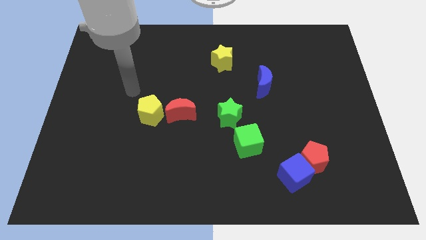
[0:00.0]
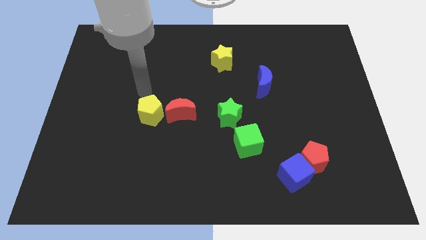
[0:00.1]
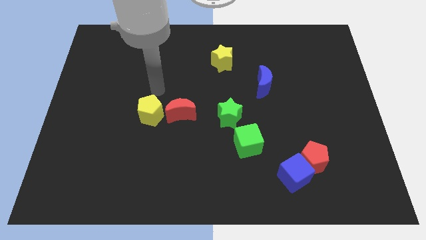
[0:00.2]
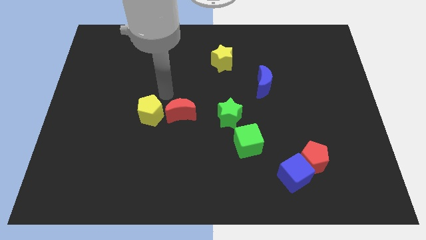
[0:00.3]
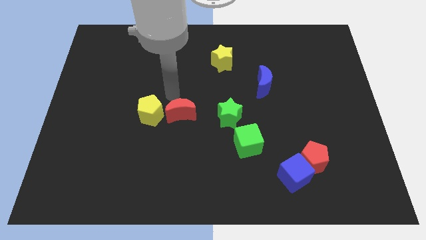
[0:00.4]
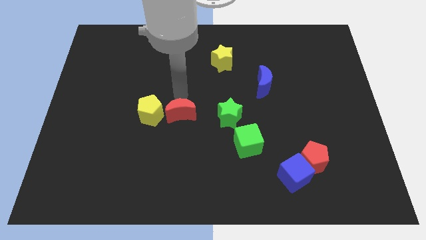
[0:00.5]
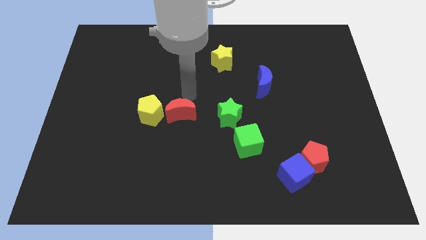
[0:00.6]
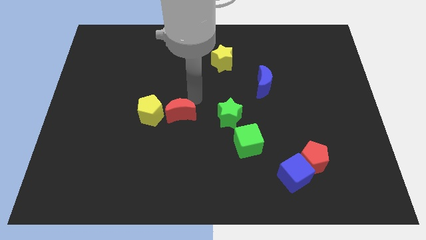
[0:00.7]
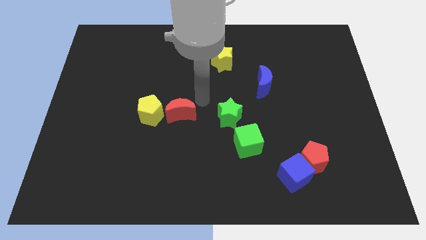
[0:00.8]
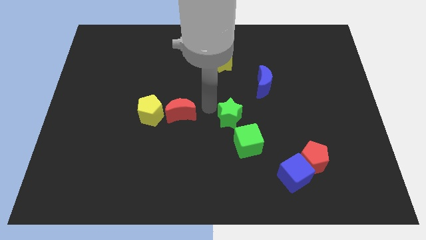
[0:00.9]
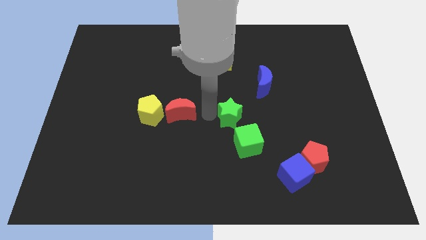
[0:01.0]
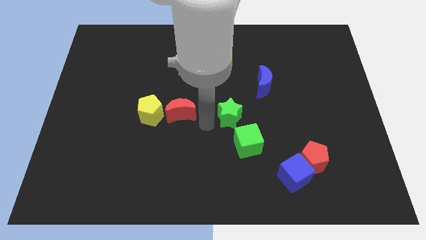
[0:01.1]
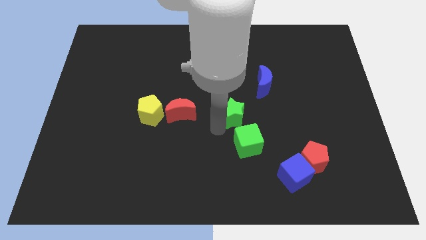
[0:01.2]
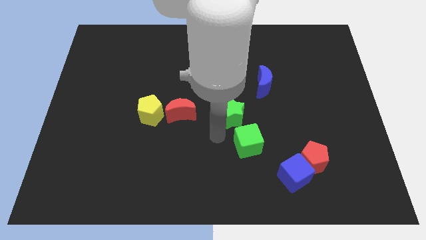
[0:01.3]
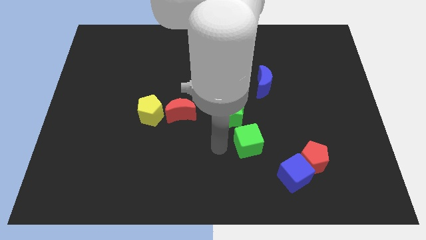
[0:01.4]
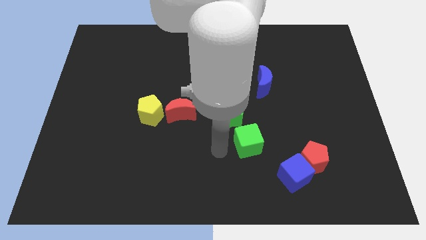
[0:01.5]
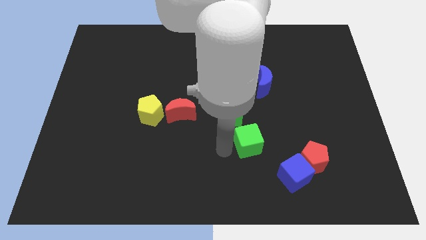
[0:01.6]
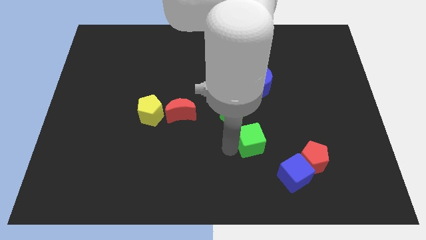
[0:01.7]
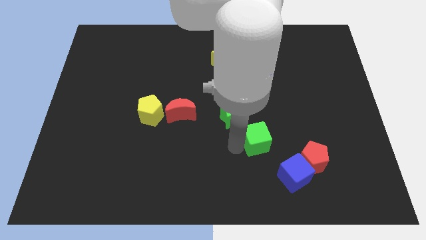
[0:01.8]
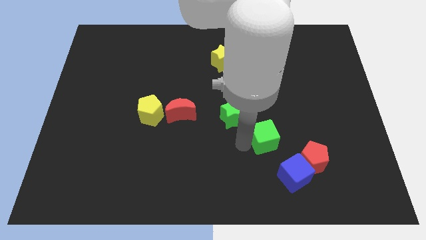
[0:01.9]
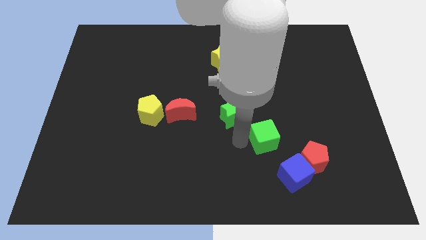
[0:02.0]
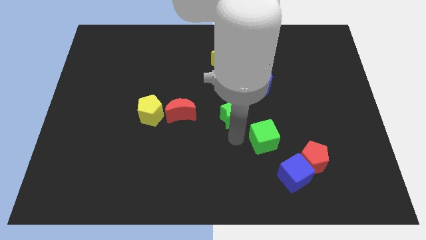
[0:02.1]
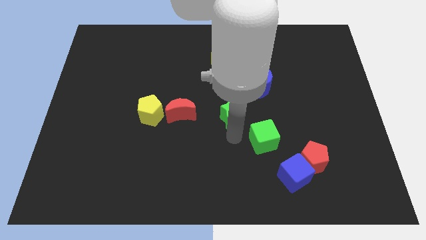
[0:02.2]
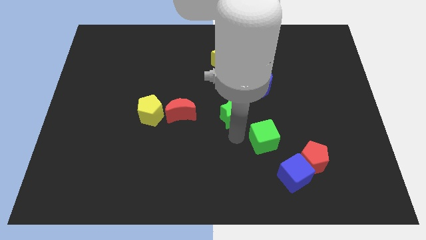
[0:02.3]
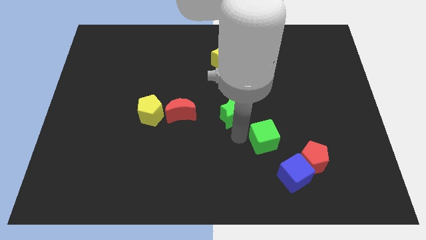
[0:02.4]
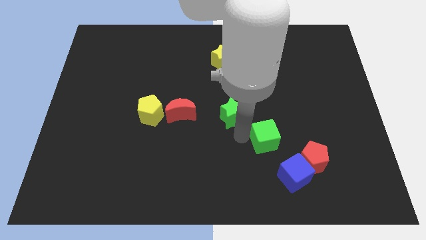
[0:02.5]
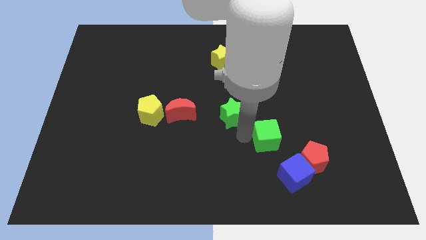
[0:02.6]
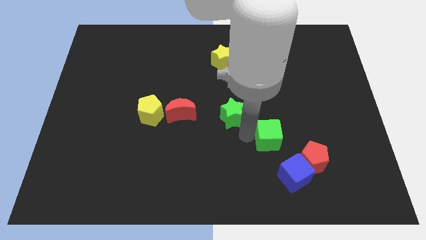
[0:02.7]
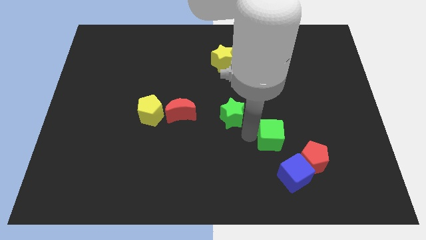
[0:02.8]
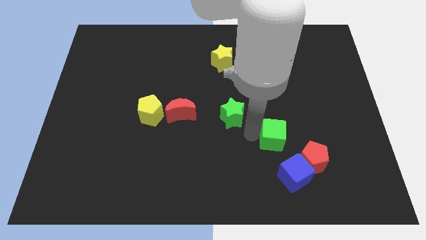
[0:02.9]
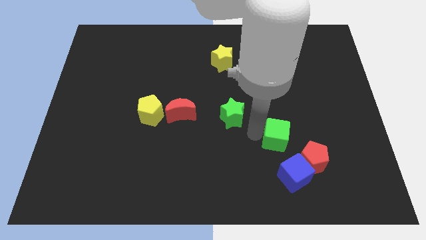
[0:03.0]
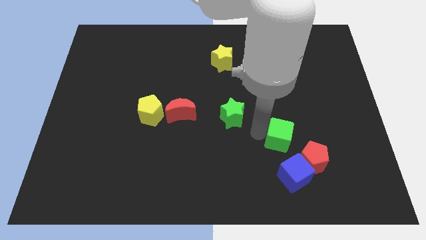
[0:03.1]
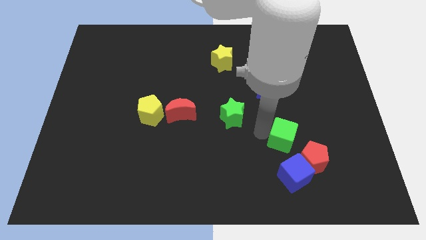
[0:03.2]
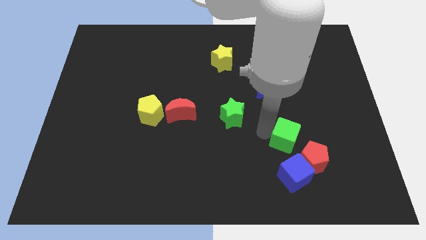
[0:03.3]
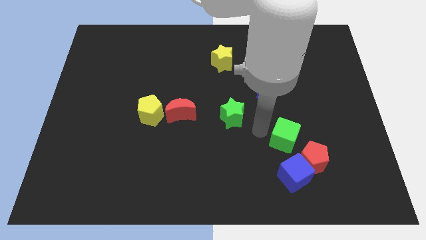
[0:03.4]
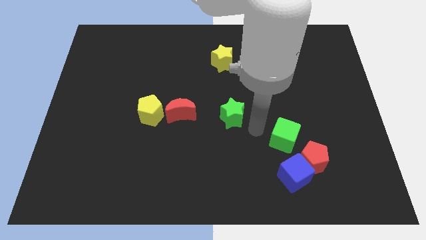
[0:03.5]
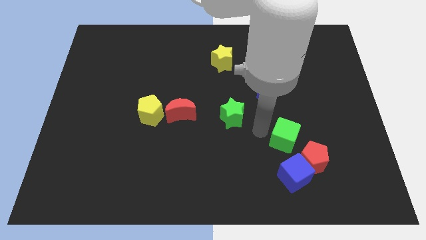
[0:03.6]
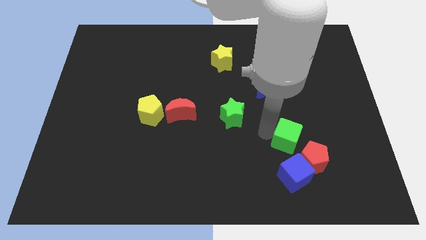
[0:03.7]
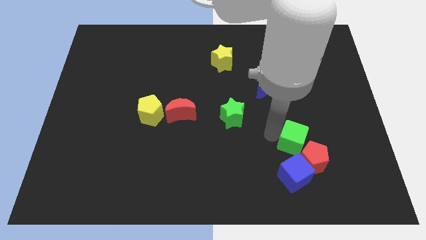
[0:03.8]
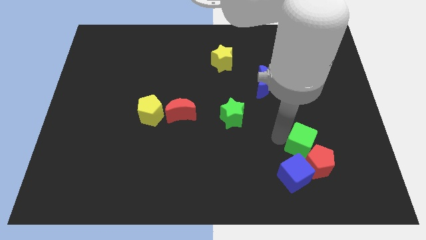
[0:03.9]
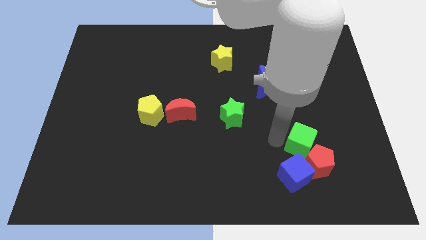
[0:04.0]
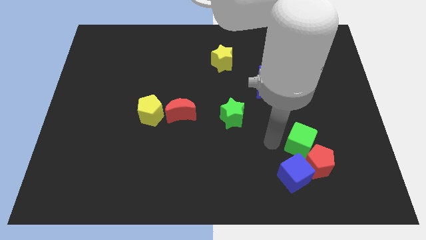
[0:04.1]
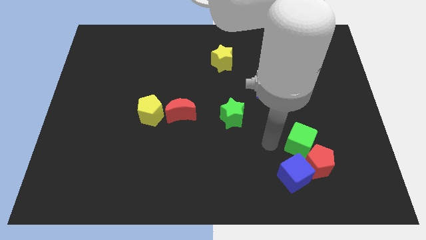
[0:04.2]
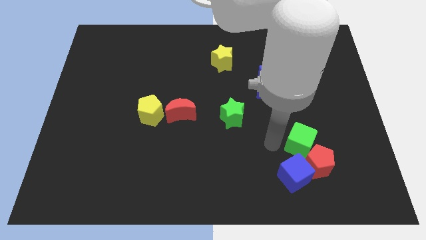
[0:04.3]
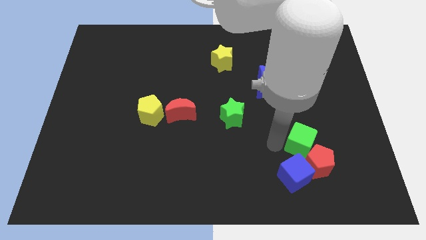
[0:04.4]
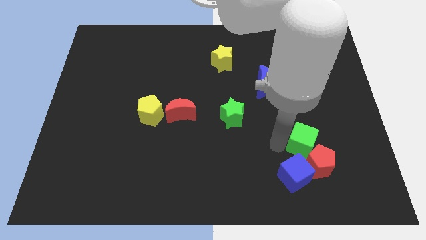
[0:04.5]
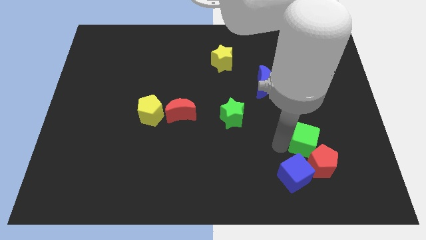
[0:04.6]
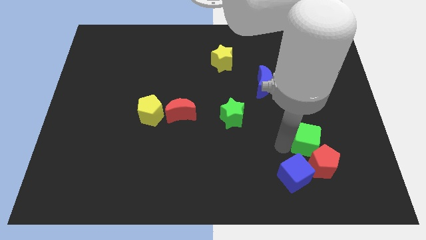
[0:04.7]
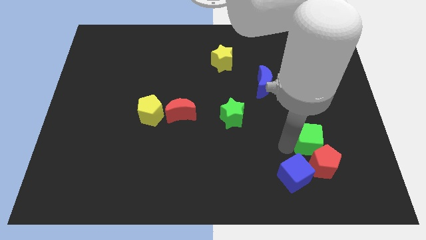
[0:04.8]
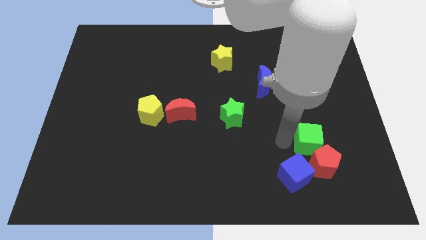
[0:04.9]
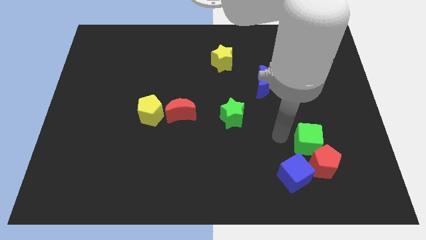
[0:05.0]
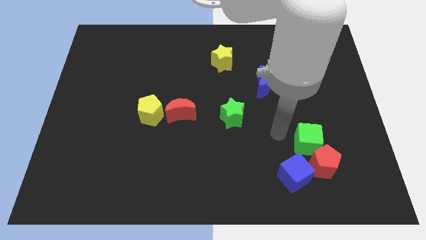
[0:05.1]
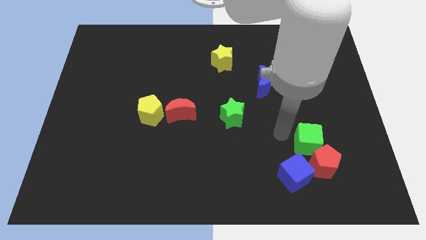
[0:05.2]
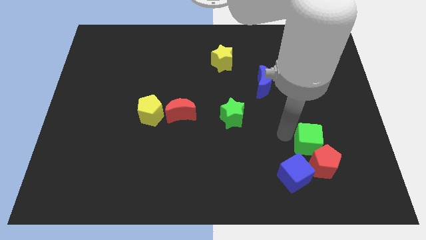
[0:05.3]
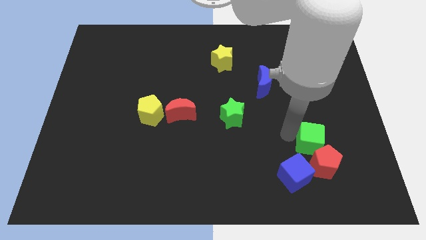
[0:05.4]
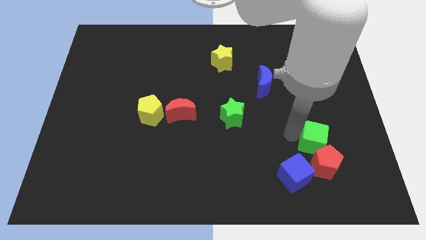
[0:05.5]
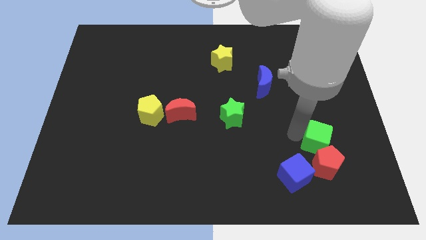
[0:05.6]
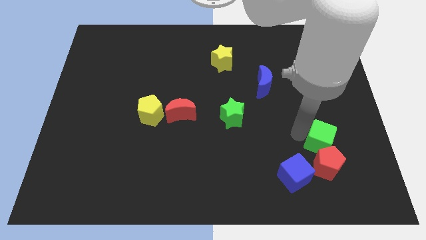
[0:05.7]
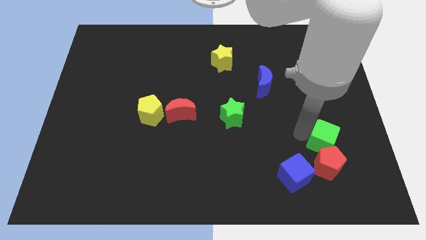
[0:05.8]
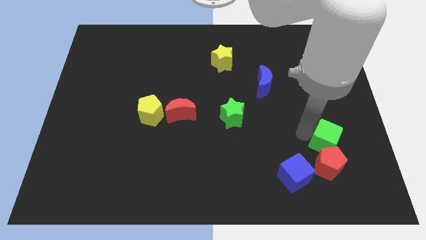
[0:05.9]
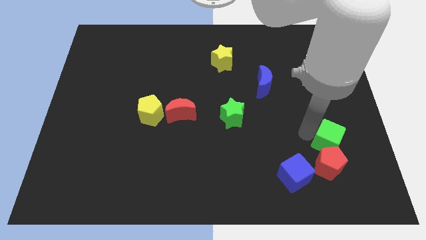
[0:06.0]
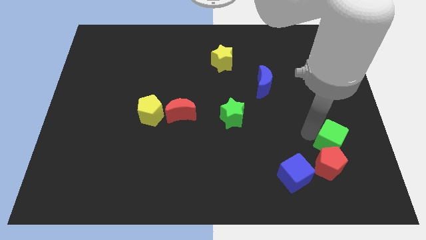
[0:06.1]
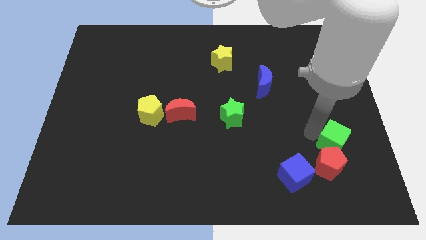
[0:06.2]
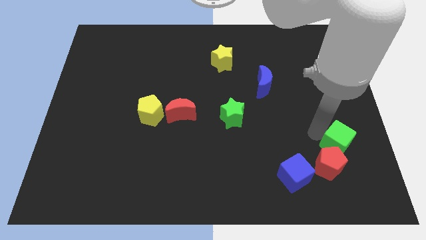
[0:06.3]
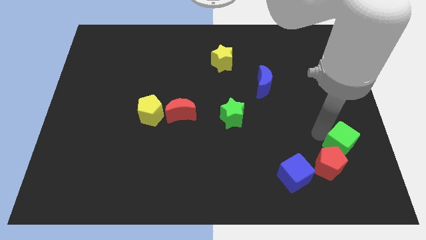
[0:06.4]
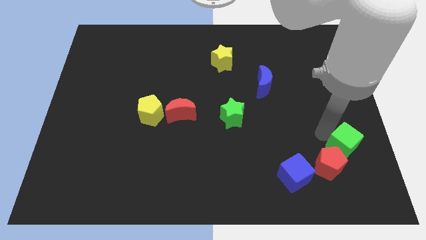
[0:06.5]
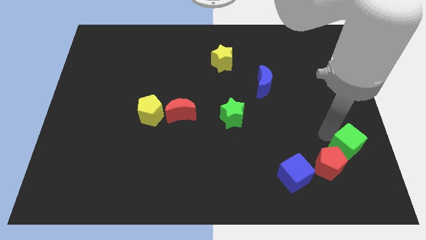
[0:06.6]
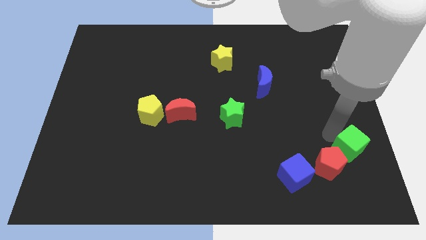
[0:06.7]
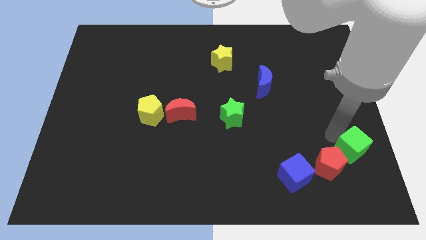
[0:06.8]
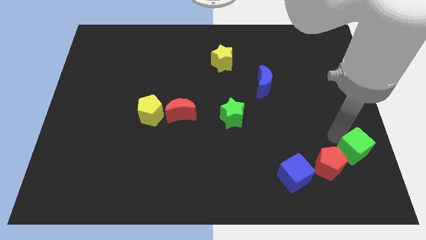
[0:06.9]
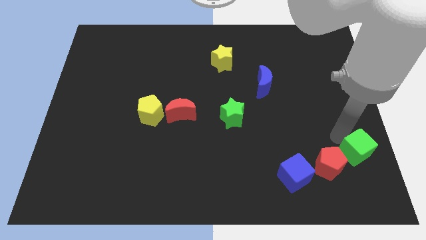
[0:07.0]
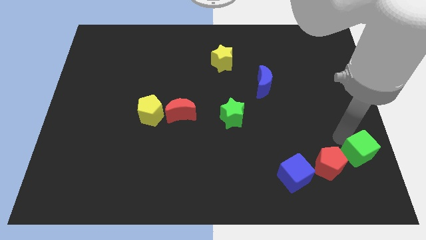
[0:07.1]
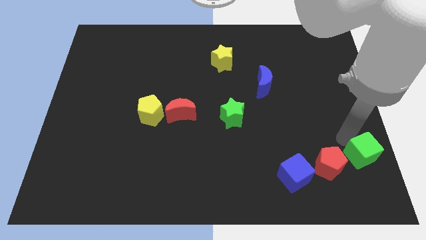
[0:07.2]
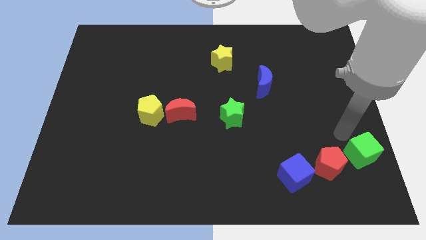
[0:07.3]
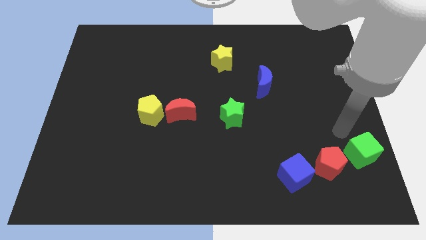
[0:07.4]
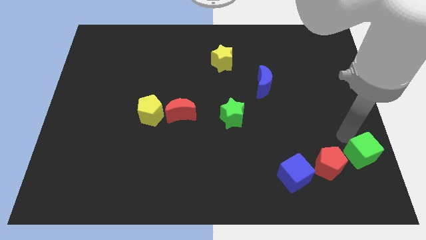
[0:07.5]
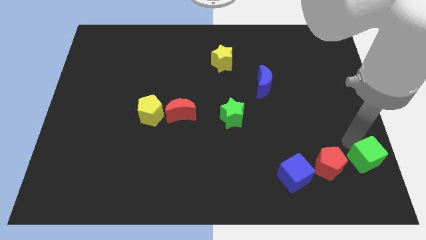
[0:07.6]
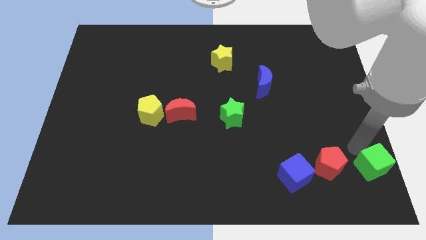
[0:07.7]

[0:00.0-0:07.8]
push the green cube to the lower right corner
